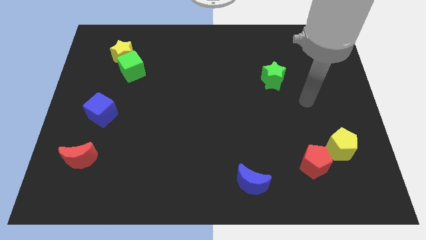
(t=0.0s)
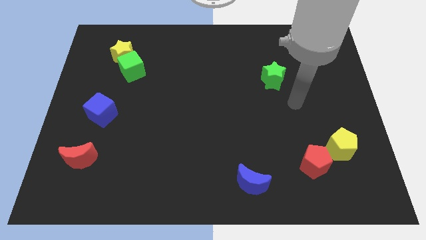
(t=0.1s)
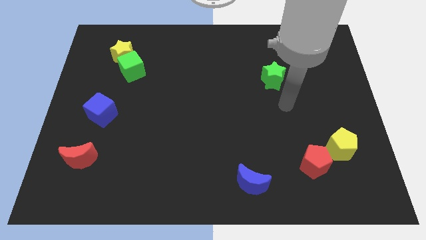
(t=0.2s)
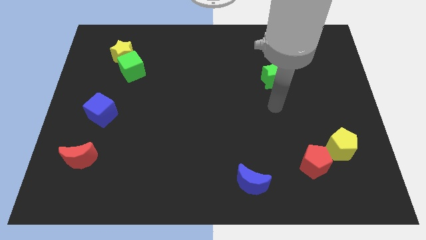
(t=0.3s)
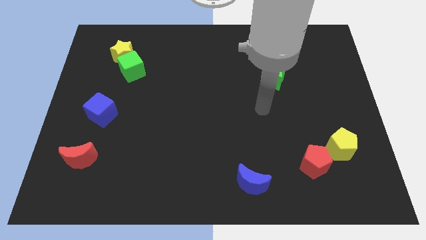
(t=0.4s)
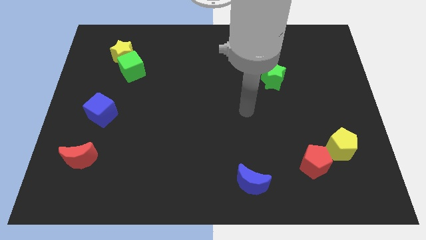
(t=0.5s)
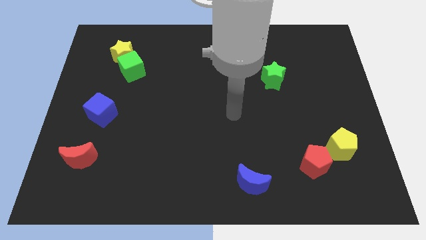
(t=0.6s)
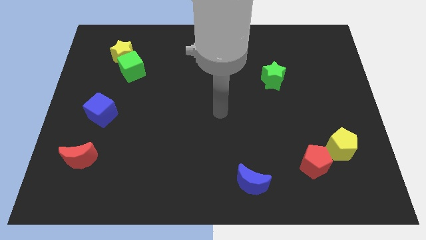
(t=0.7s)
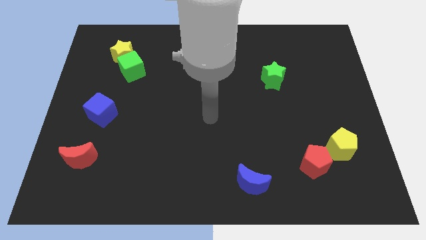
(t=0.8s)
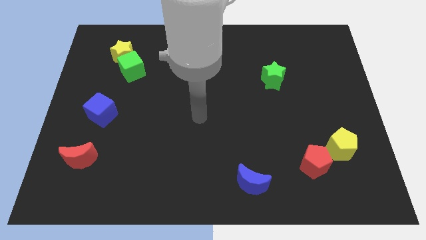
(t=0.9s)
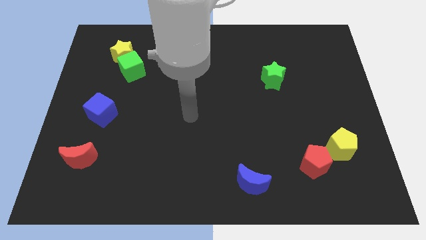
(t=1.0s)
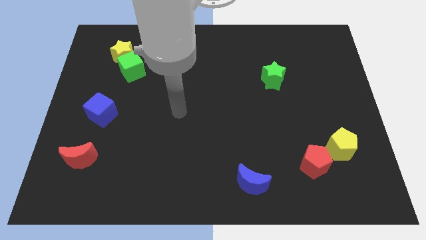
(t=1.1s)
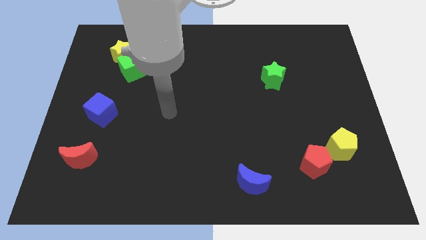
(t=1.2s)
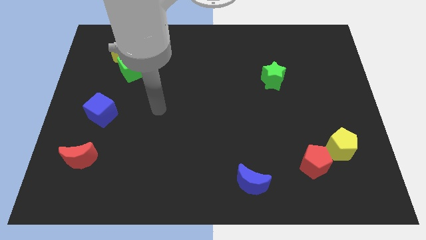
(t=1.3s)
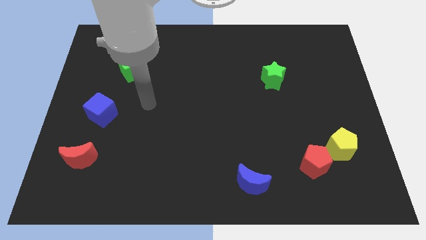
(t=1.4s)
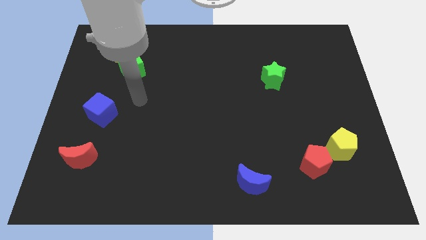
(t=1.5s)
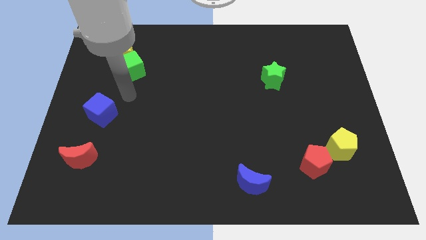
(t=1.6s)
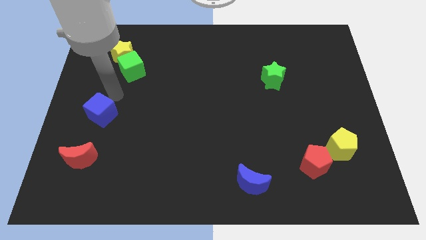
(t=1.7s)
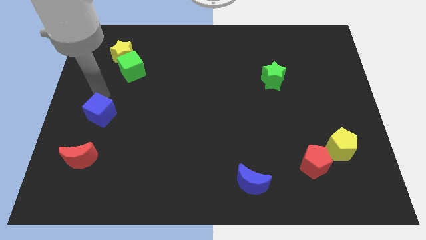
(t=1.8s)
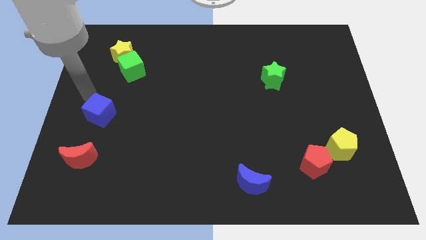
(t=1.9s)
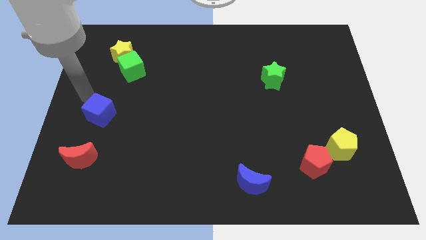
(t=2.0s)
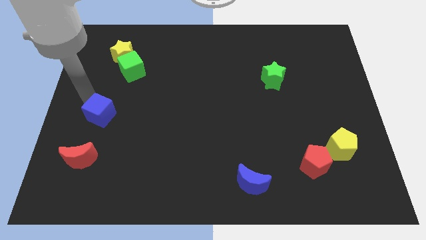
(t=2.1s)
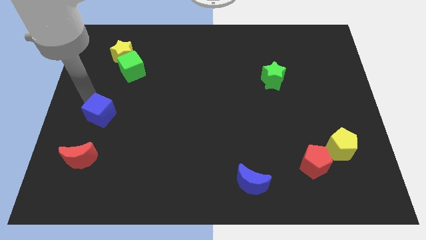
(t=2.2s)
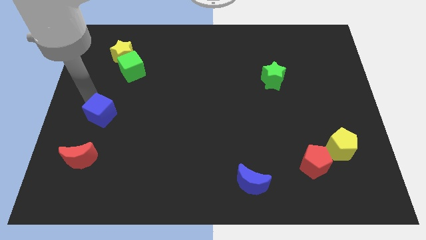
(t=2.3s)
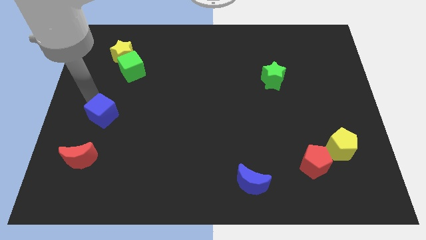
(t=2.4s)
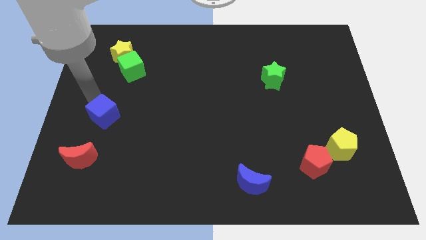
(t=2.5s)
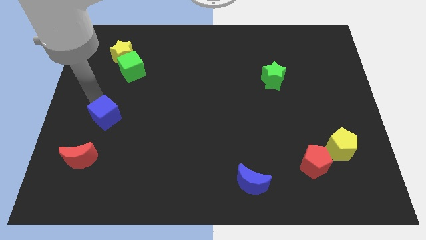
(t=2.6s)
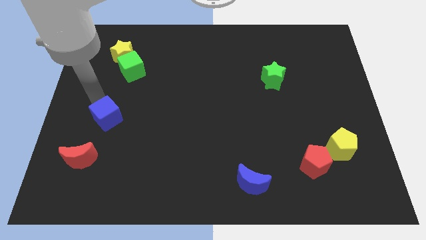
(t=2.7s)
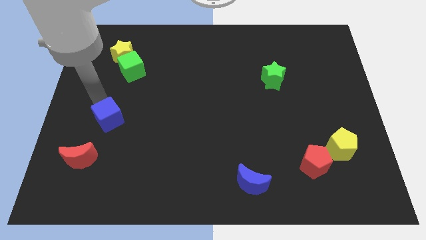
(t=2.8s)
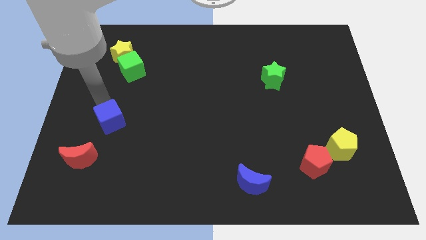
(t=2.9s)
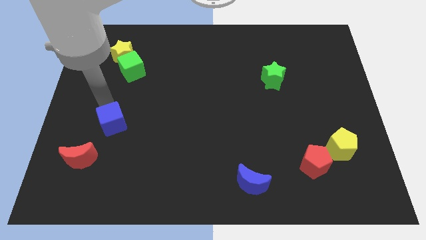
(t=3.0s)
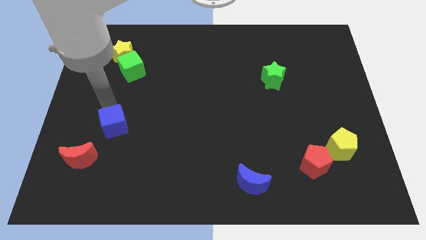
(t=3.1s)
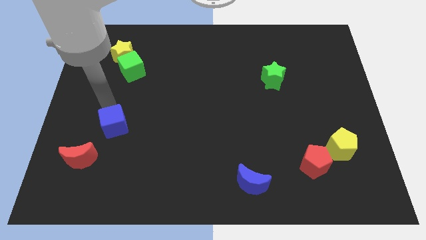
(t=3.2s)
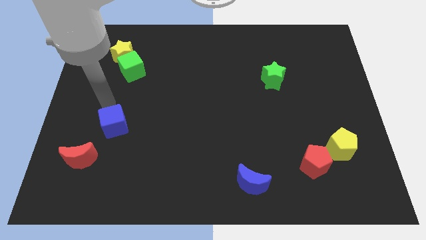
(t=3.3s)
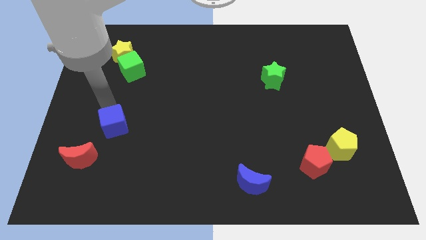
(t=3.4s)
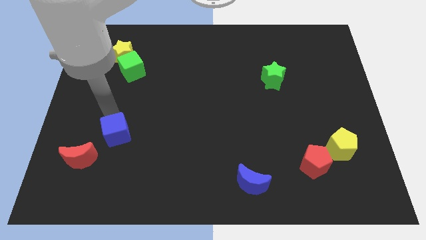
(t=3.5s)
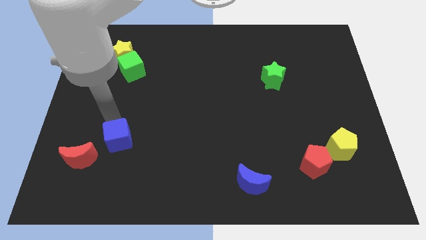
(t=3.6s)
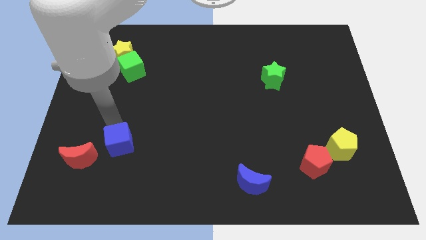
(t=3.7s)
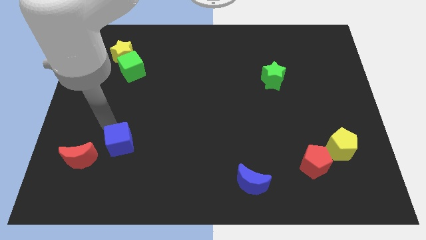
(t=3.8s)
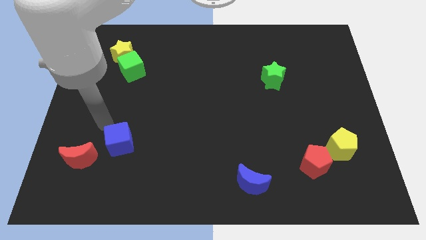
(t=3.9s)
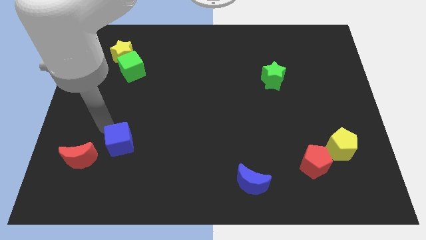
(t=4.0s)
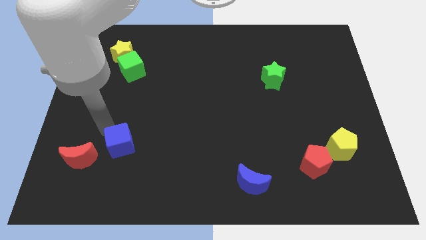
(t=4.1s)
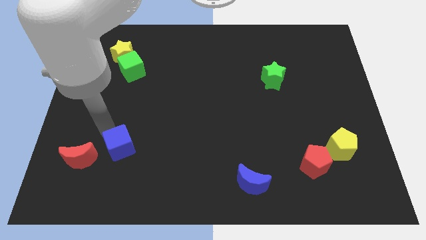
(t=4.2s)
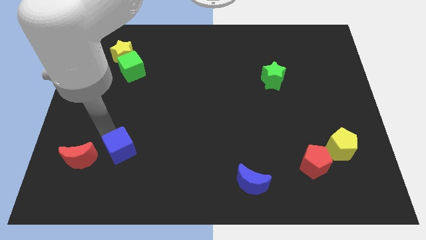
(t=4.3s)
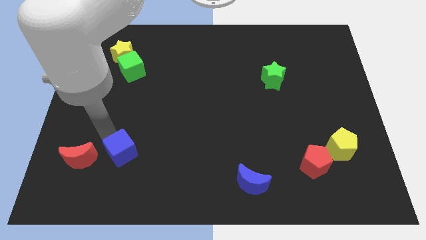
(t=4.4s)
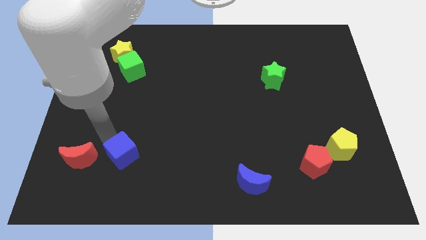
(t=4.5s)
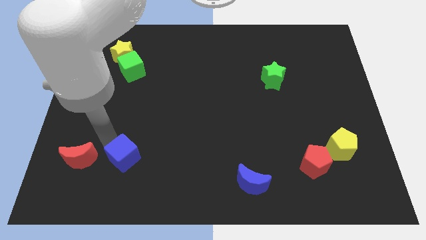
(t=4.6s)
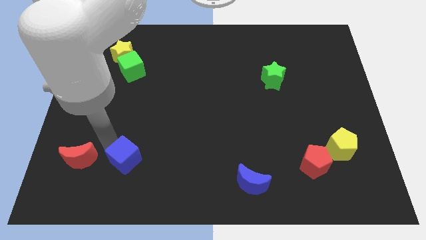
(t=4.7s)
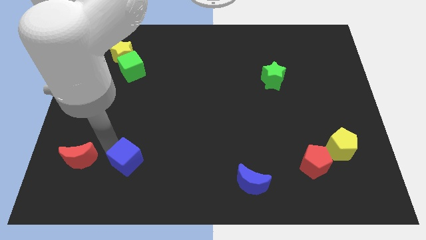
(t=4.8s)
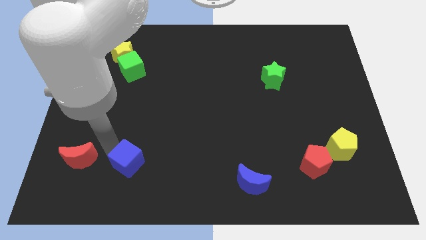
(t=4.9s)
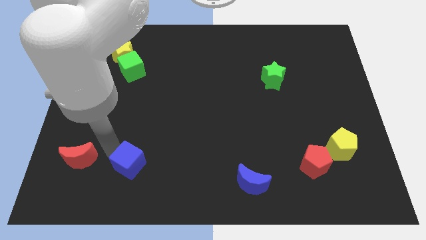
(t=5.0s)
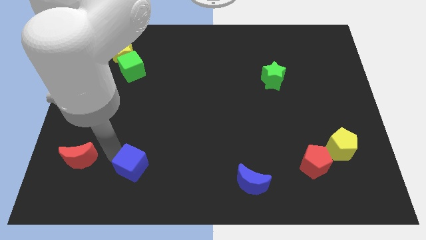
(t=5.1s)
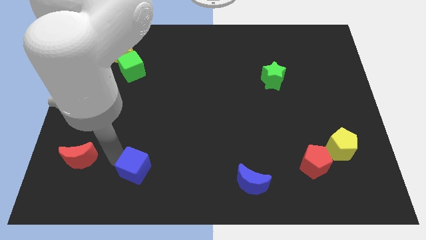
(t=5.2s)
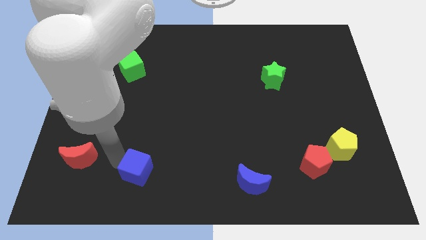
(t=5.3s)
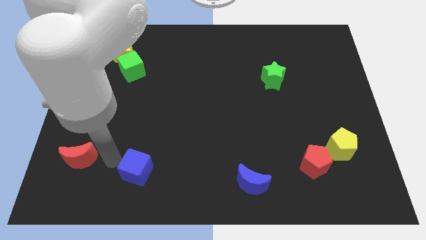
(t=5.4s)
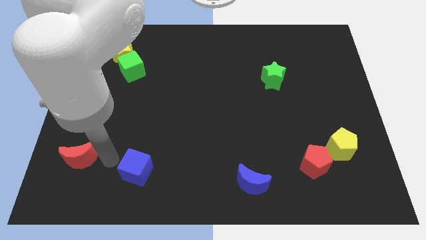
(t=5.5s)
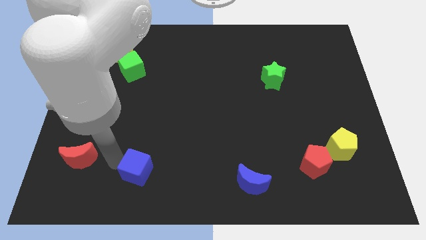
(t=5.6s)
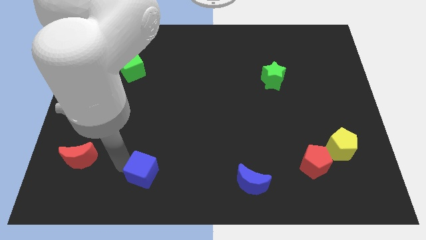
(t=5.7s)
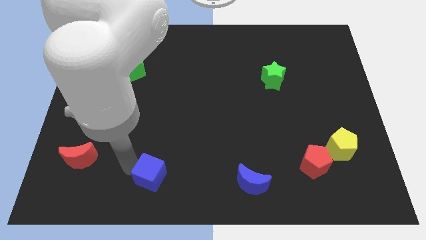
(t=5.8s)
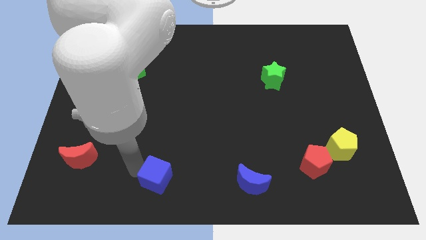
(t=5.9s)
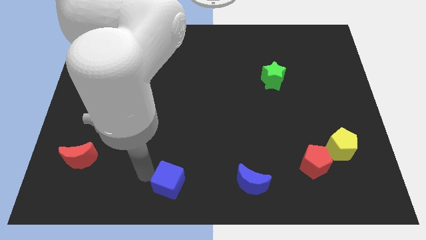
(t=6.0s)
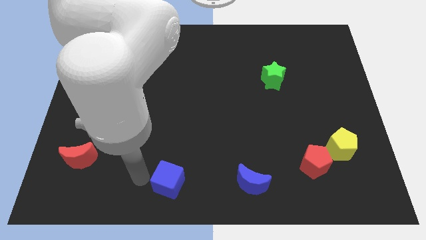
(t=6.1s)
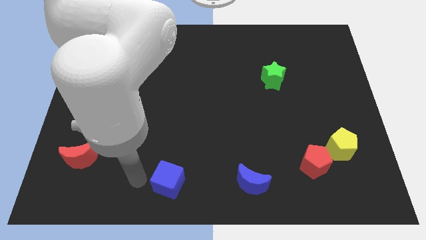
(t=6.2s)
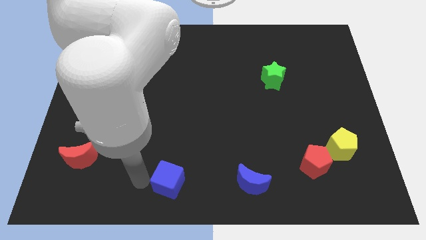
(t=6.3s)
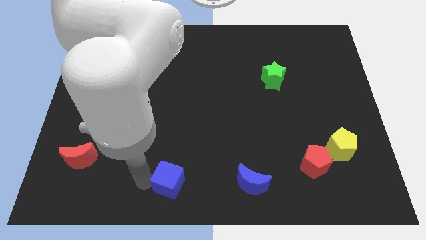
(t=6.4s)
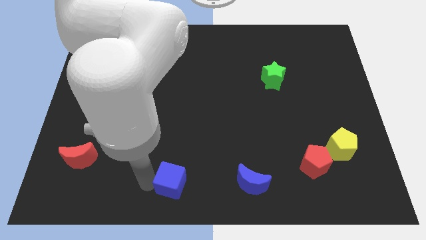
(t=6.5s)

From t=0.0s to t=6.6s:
move the blue cube to the left side of the blue moon

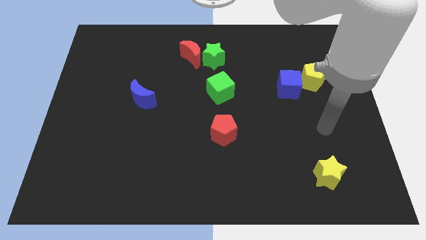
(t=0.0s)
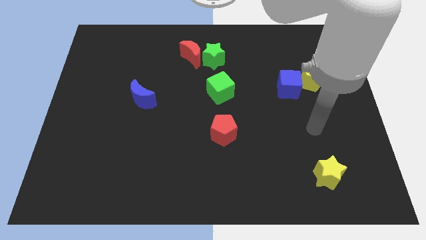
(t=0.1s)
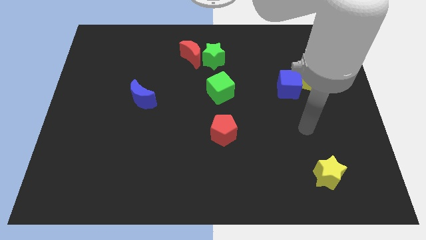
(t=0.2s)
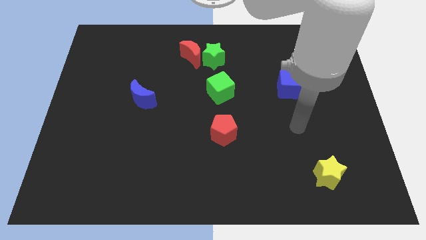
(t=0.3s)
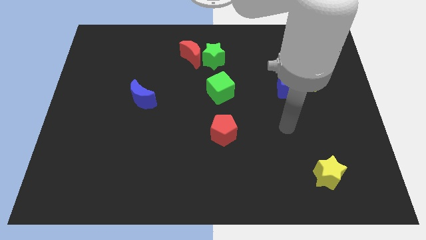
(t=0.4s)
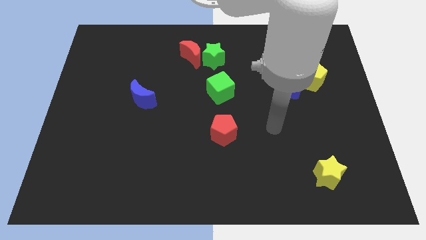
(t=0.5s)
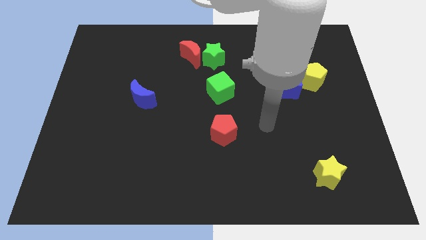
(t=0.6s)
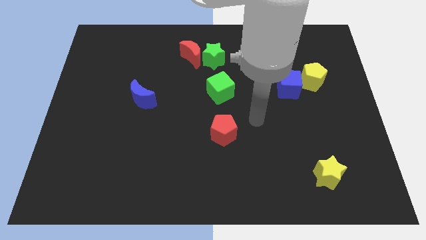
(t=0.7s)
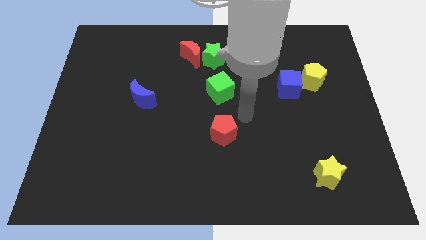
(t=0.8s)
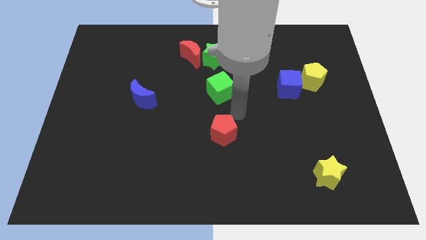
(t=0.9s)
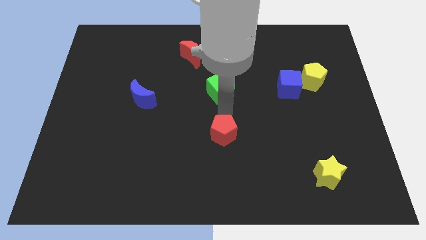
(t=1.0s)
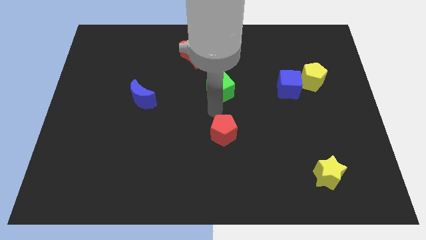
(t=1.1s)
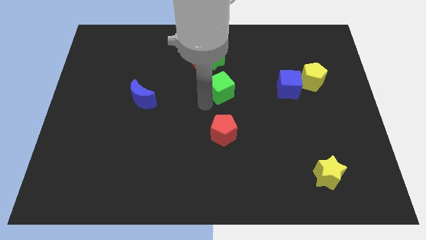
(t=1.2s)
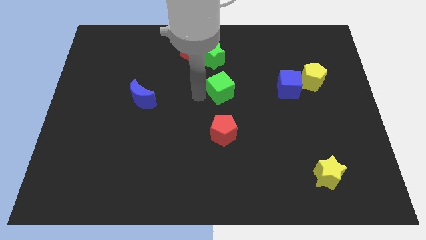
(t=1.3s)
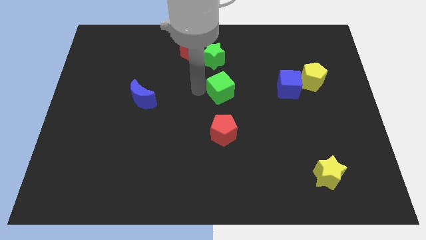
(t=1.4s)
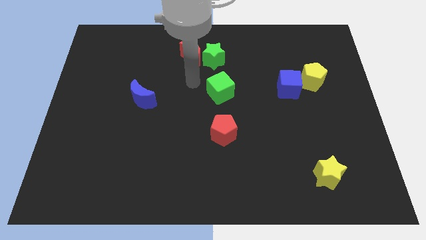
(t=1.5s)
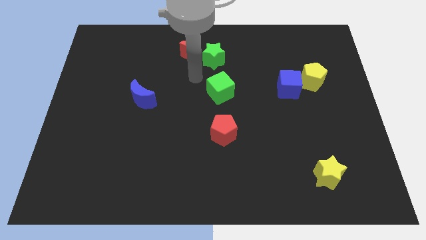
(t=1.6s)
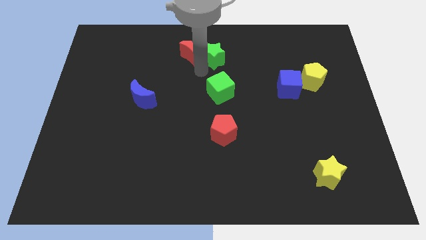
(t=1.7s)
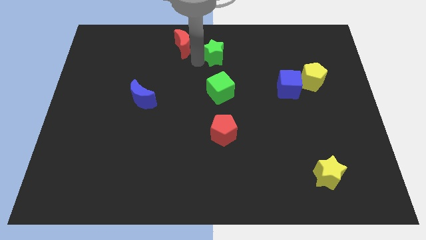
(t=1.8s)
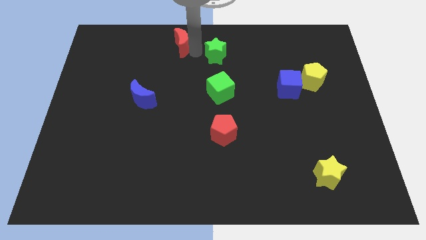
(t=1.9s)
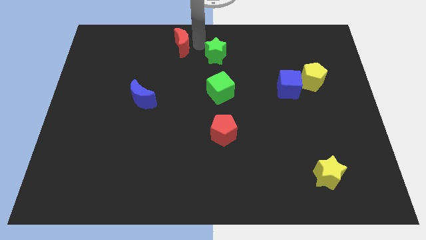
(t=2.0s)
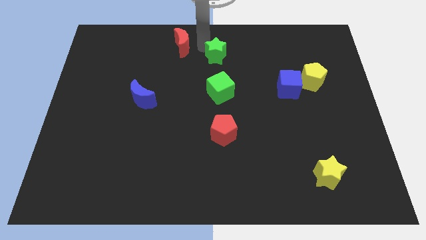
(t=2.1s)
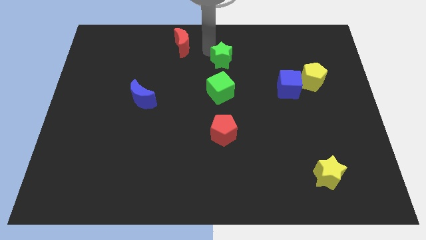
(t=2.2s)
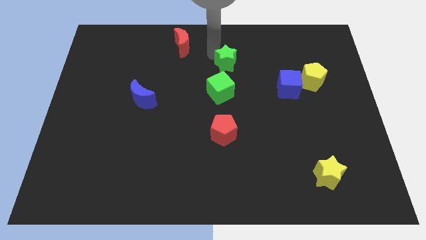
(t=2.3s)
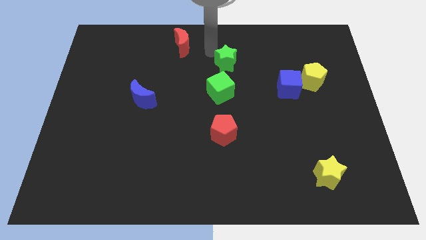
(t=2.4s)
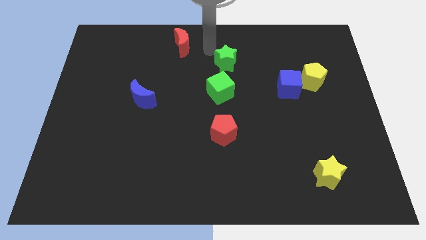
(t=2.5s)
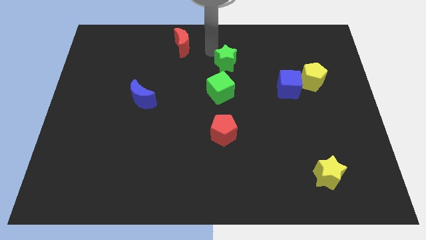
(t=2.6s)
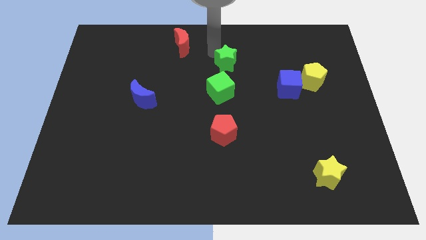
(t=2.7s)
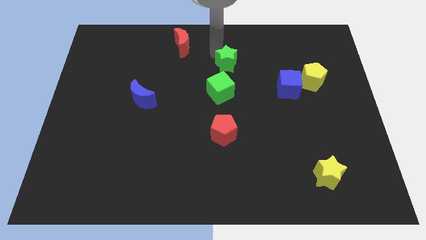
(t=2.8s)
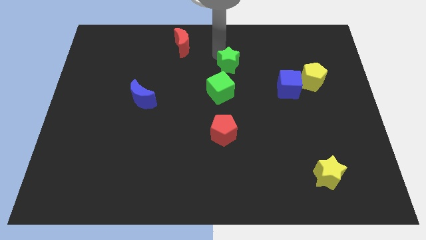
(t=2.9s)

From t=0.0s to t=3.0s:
put the green star diagonally up and to the right of the green cube
